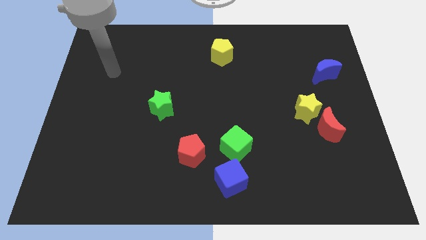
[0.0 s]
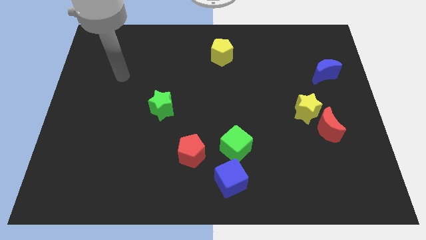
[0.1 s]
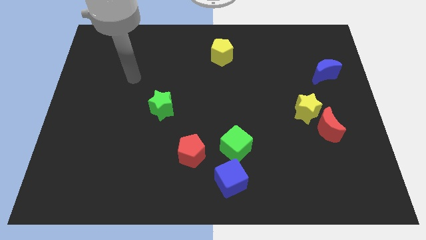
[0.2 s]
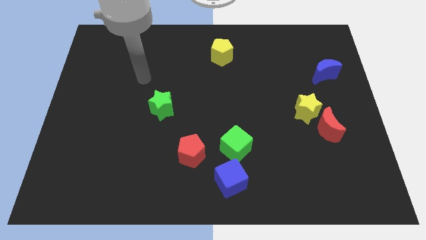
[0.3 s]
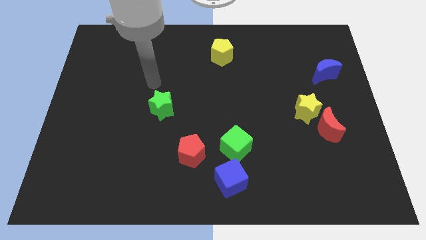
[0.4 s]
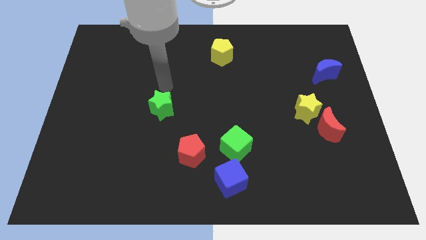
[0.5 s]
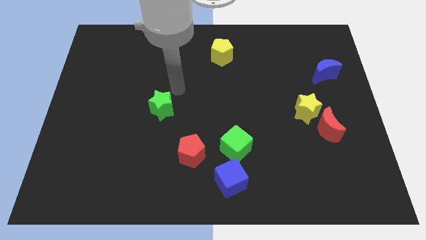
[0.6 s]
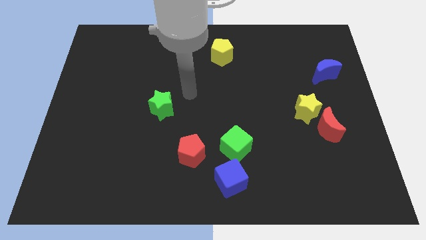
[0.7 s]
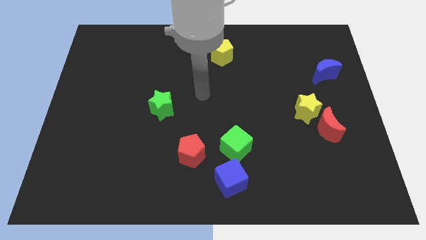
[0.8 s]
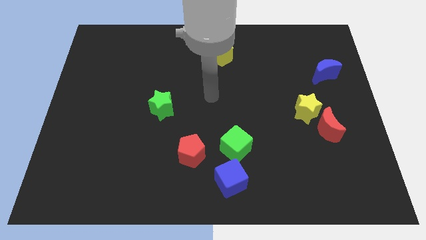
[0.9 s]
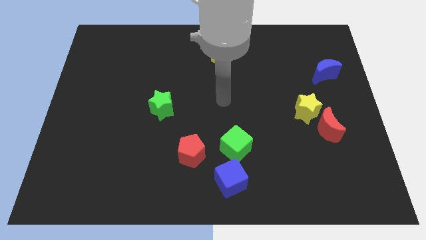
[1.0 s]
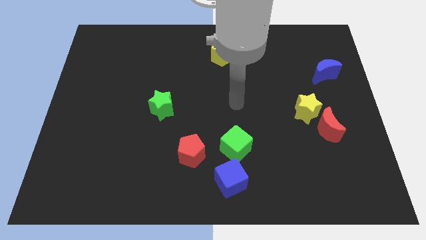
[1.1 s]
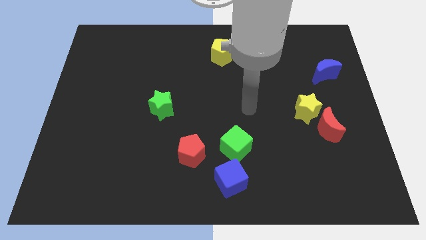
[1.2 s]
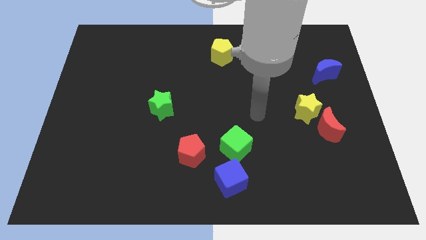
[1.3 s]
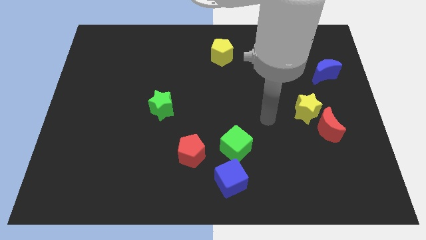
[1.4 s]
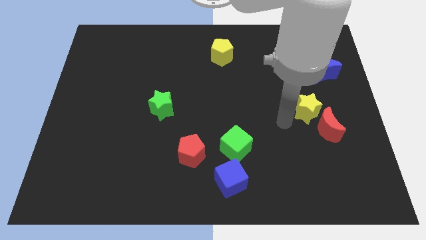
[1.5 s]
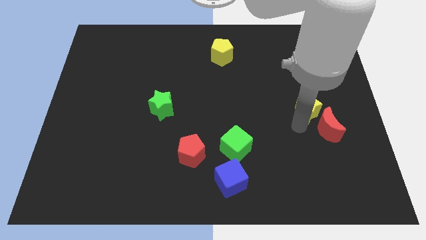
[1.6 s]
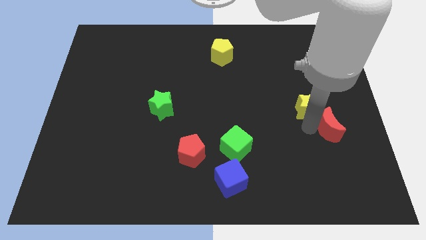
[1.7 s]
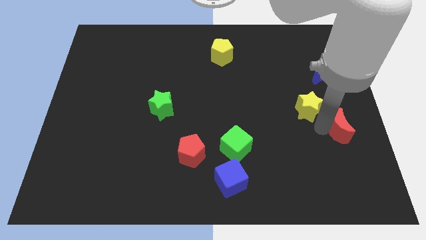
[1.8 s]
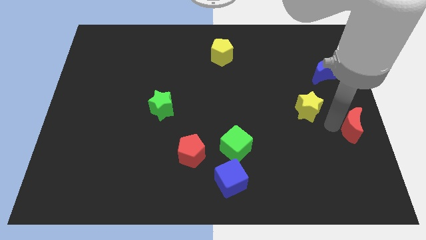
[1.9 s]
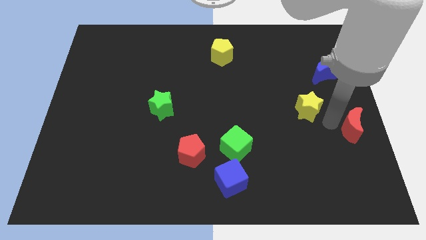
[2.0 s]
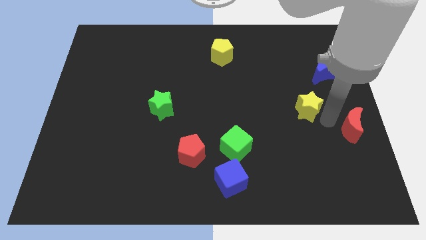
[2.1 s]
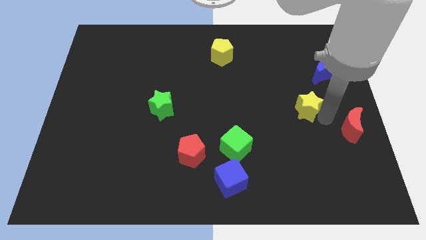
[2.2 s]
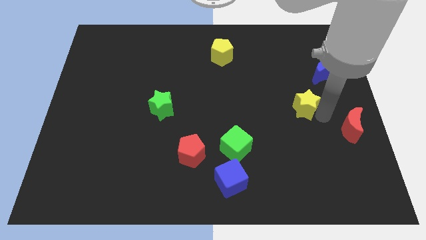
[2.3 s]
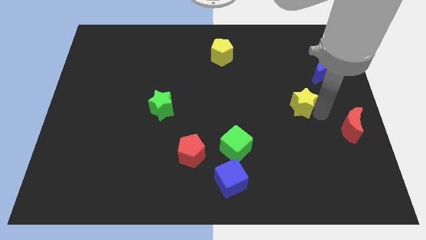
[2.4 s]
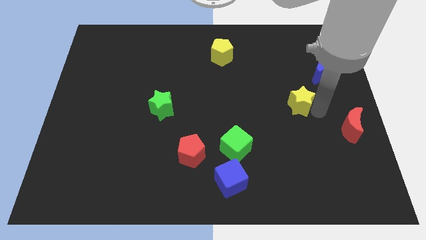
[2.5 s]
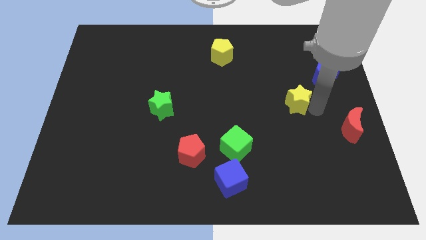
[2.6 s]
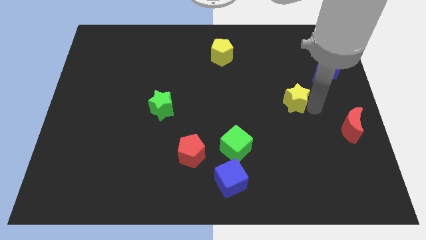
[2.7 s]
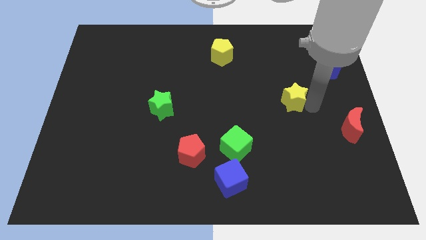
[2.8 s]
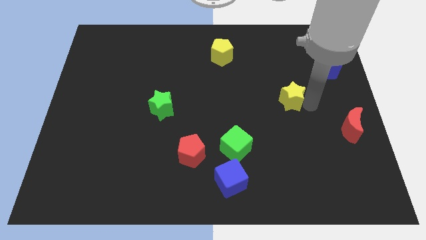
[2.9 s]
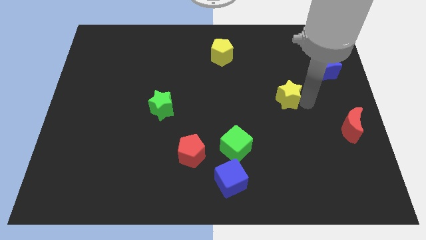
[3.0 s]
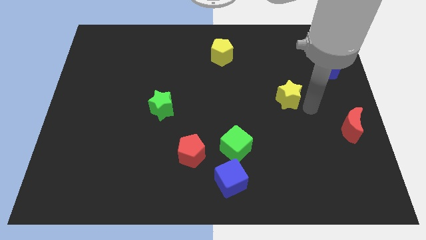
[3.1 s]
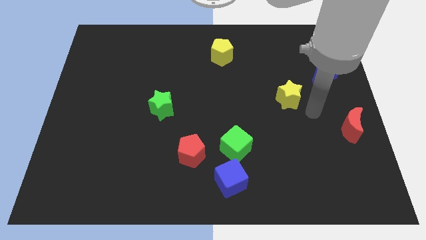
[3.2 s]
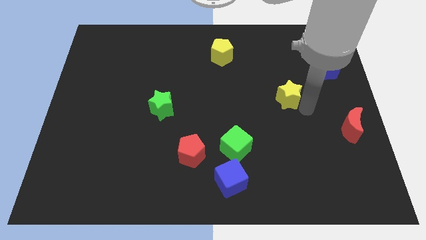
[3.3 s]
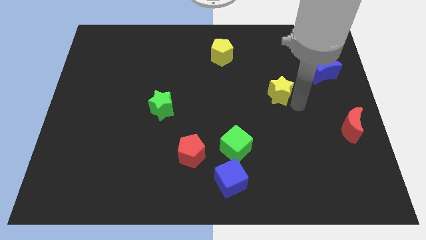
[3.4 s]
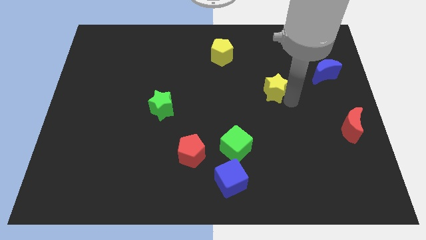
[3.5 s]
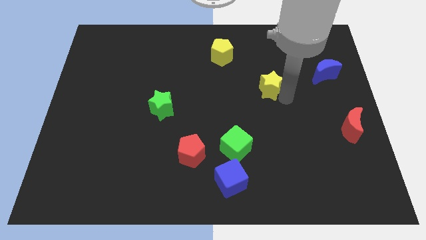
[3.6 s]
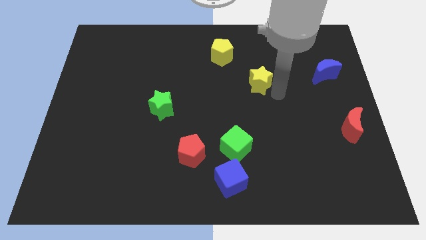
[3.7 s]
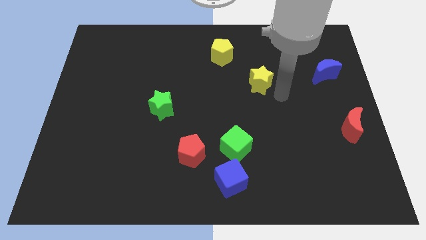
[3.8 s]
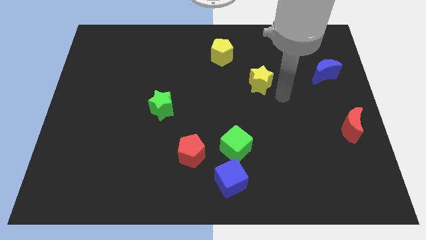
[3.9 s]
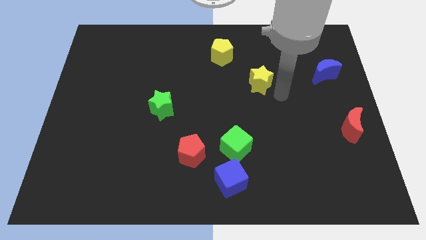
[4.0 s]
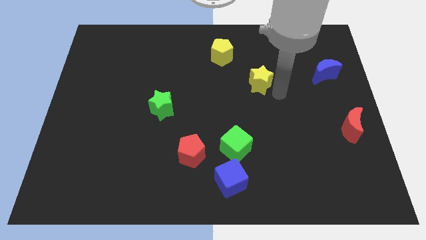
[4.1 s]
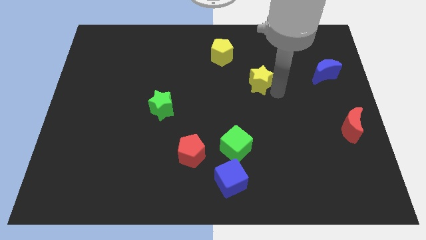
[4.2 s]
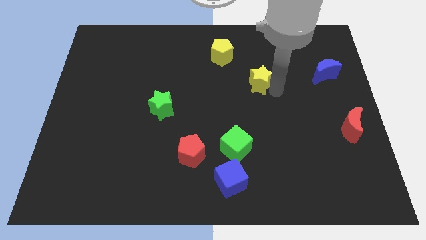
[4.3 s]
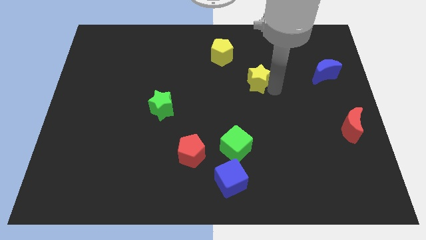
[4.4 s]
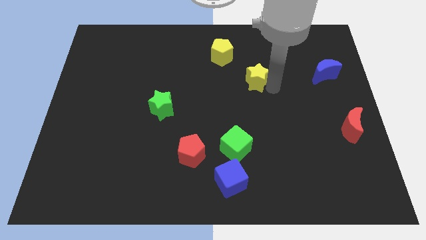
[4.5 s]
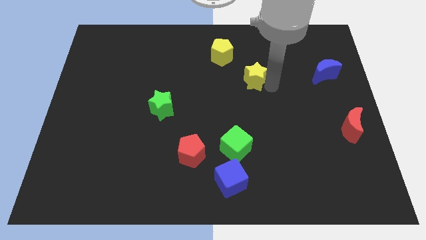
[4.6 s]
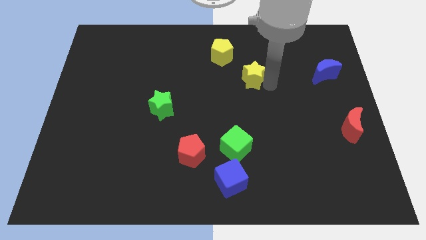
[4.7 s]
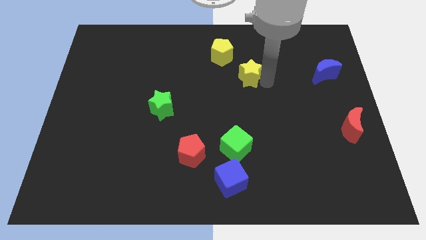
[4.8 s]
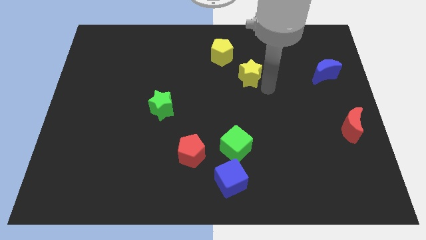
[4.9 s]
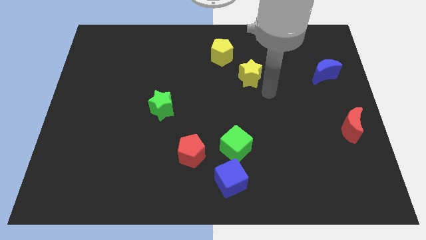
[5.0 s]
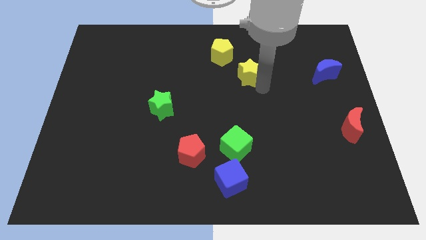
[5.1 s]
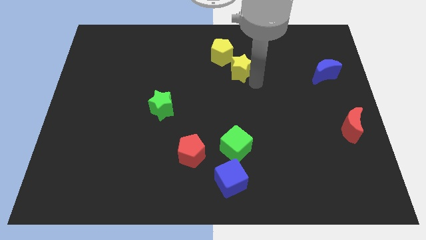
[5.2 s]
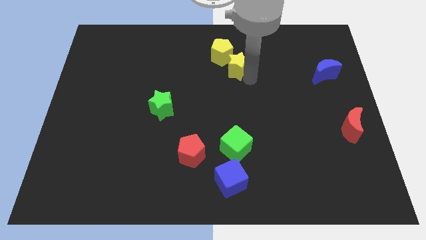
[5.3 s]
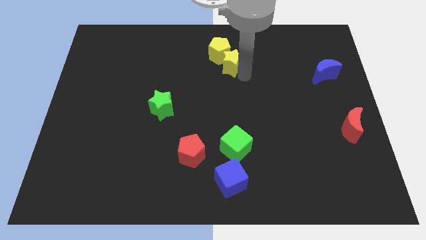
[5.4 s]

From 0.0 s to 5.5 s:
push the yellow star towards the yellow pentagon
